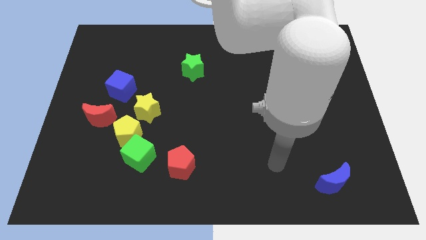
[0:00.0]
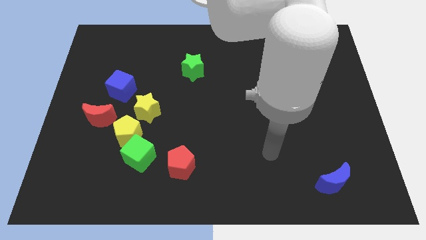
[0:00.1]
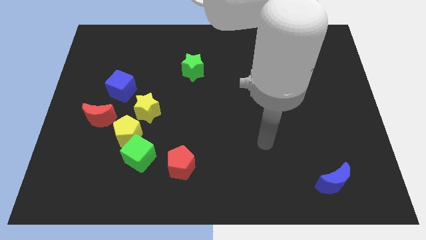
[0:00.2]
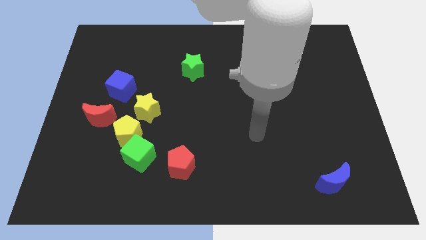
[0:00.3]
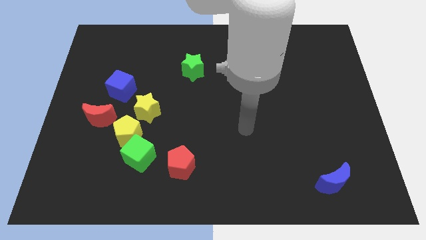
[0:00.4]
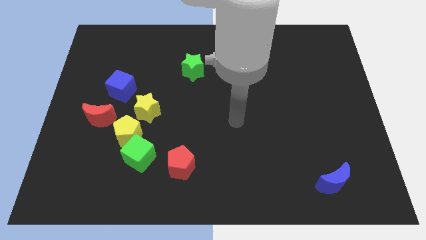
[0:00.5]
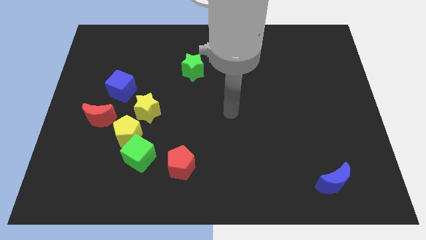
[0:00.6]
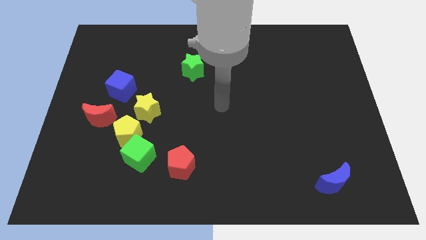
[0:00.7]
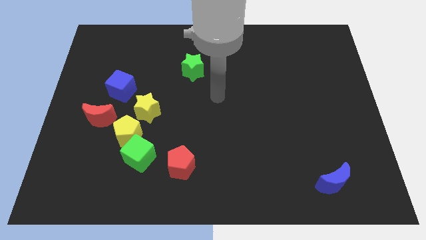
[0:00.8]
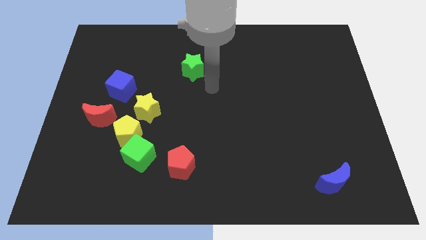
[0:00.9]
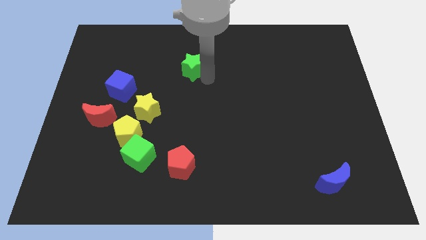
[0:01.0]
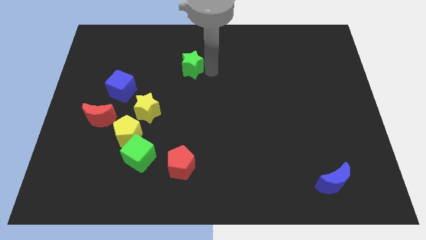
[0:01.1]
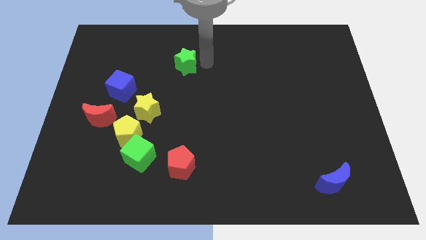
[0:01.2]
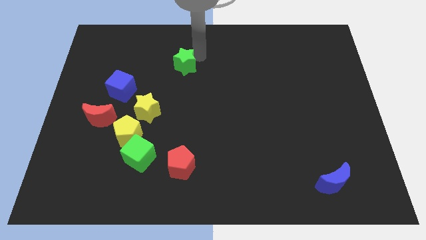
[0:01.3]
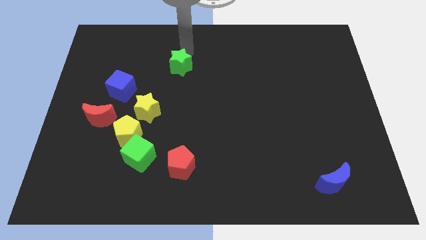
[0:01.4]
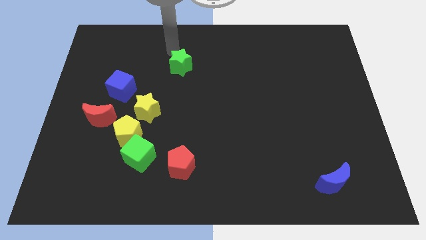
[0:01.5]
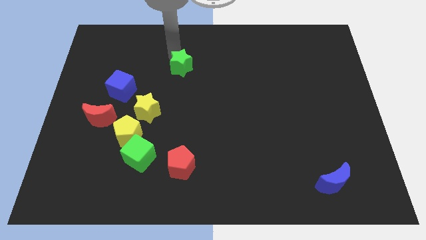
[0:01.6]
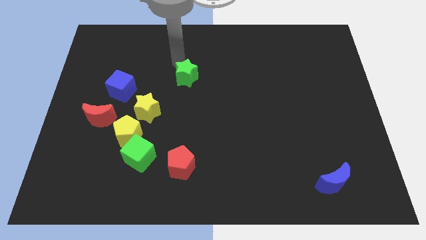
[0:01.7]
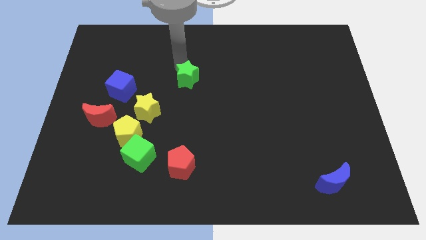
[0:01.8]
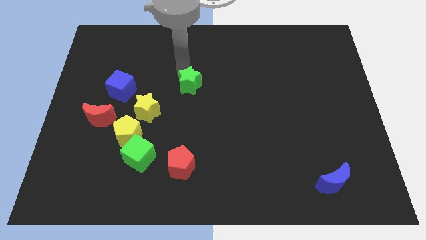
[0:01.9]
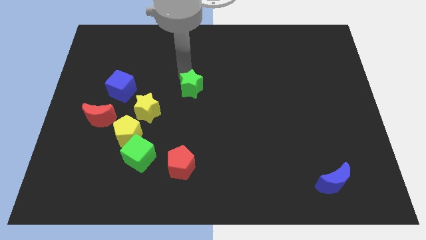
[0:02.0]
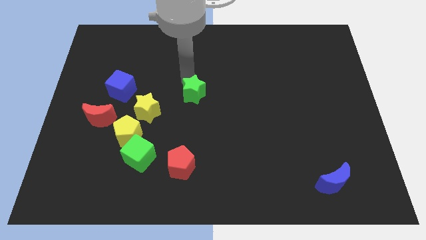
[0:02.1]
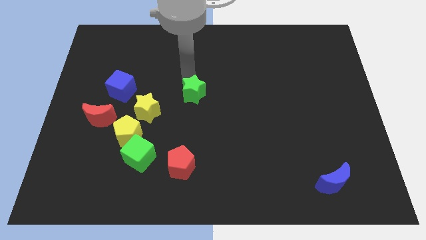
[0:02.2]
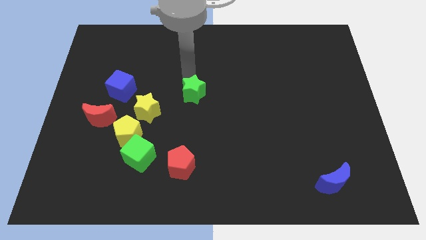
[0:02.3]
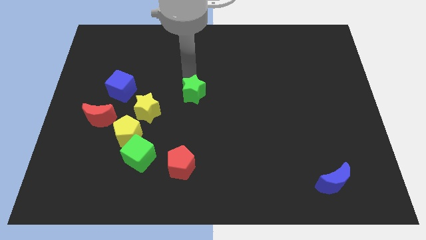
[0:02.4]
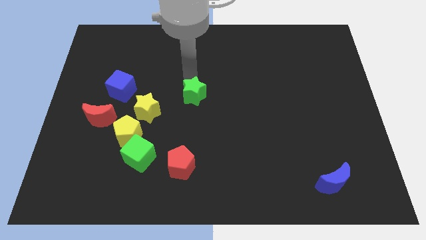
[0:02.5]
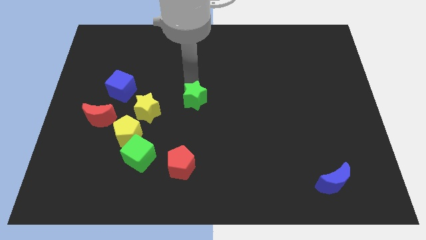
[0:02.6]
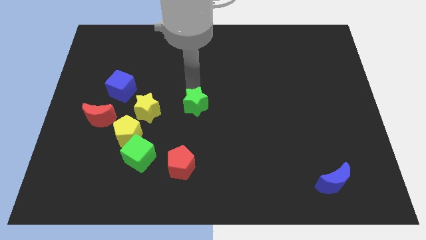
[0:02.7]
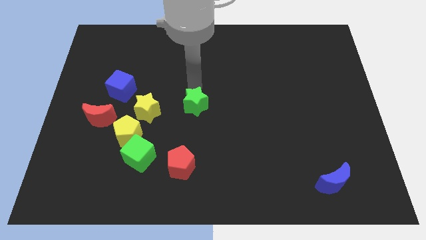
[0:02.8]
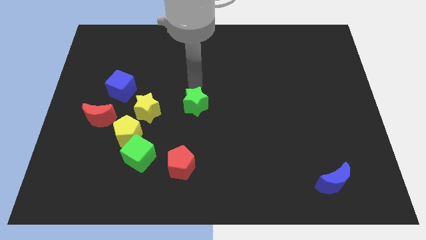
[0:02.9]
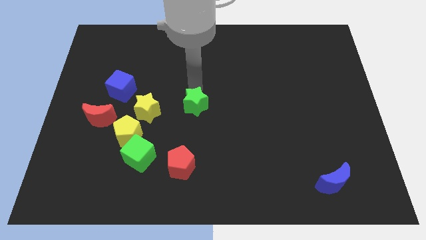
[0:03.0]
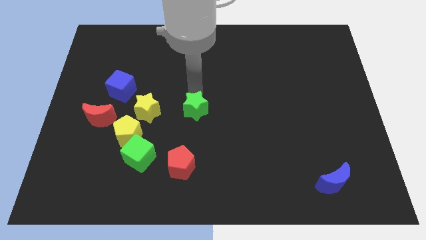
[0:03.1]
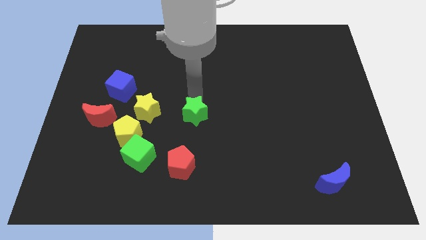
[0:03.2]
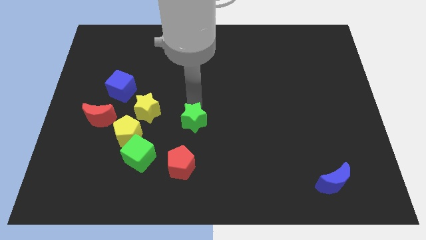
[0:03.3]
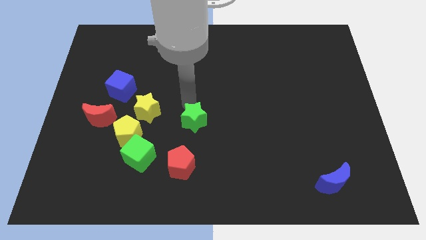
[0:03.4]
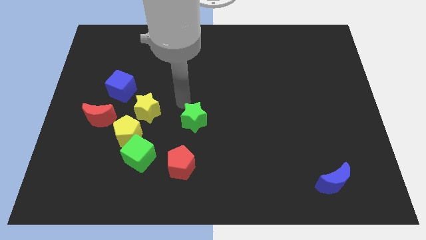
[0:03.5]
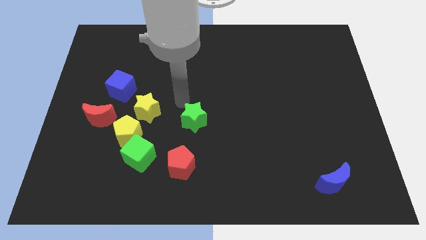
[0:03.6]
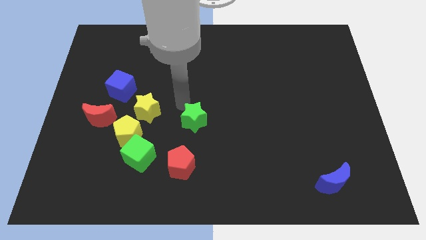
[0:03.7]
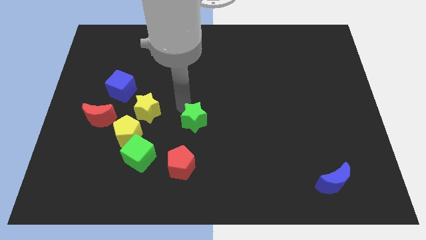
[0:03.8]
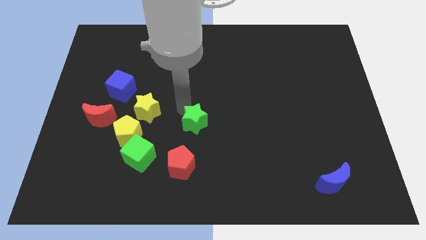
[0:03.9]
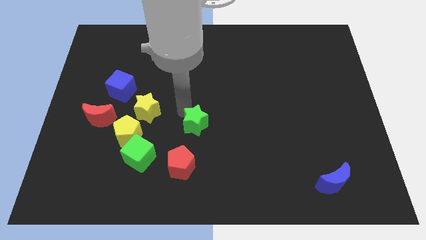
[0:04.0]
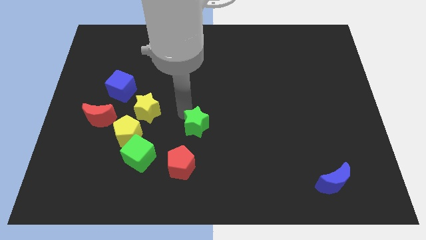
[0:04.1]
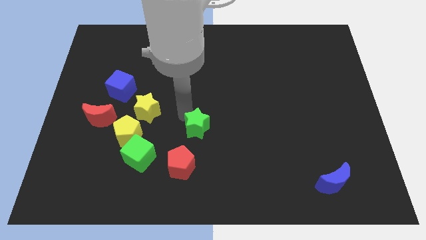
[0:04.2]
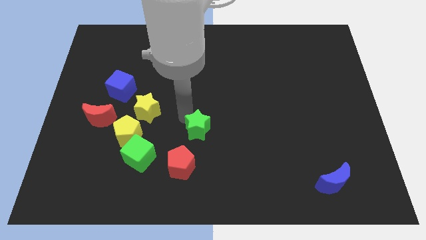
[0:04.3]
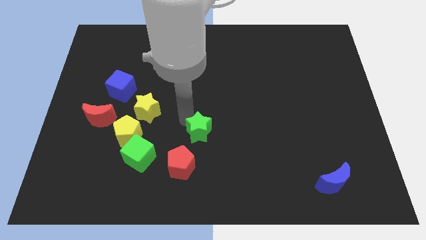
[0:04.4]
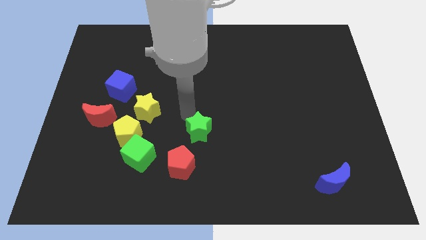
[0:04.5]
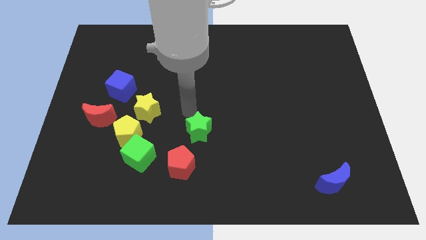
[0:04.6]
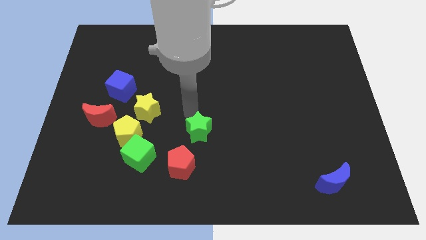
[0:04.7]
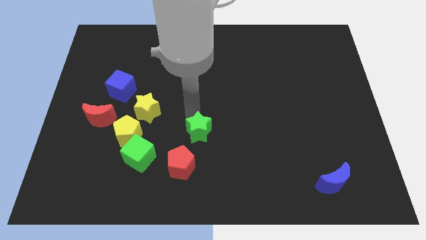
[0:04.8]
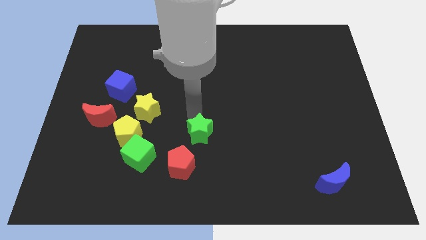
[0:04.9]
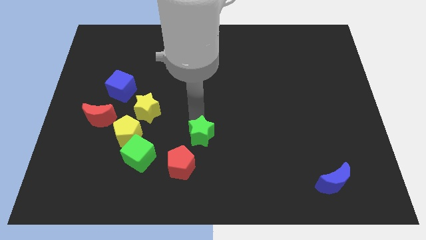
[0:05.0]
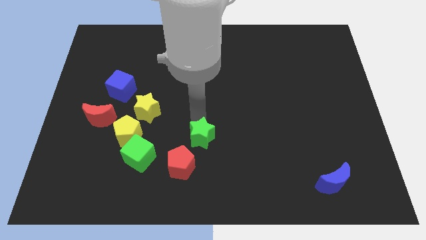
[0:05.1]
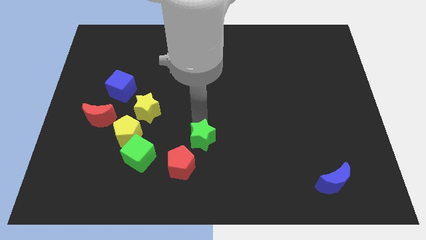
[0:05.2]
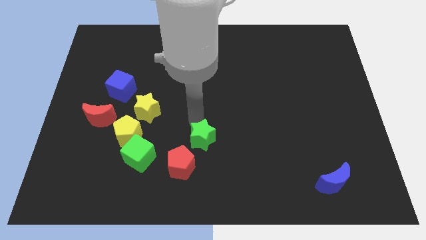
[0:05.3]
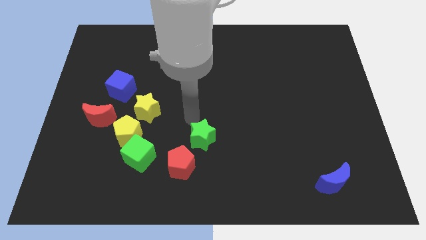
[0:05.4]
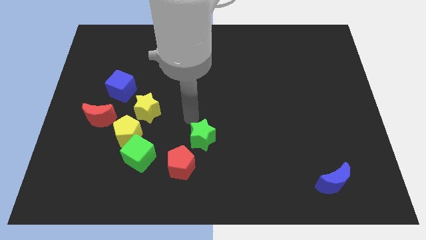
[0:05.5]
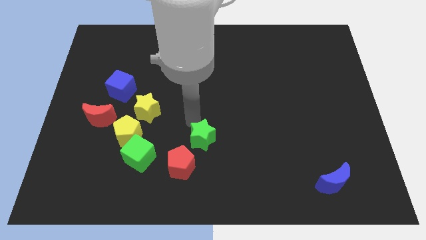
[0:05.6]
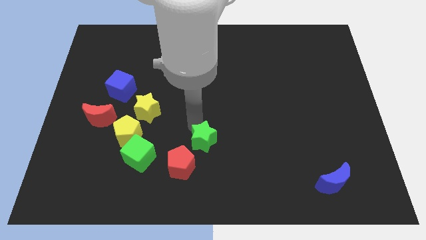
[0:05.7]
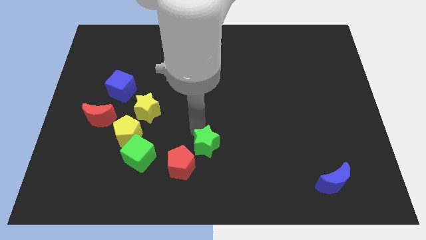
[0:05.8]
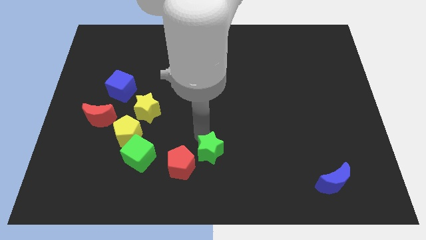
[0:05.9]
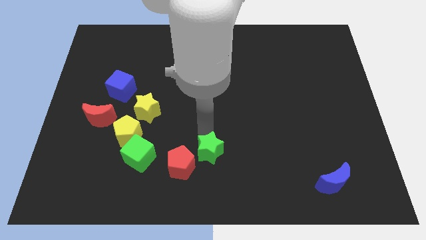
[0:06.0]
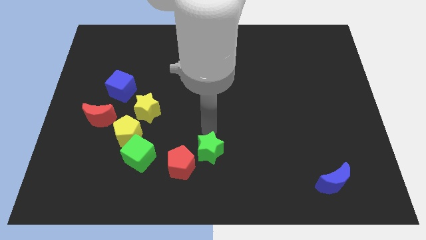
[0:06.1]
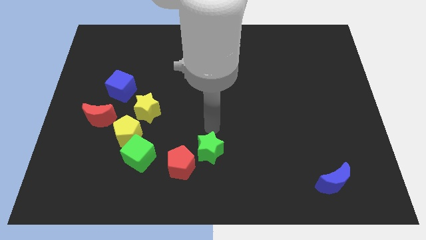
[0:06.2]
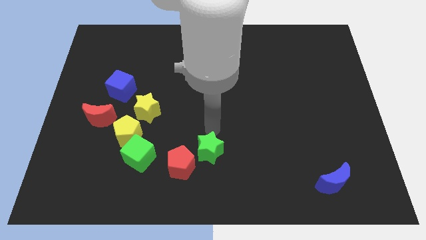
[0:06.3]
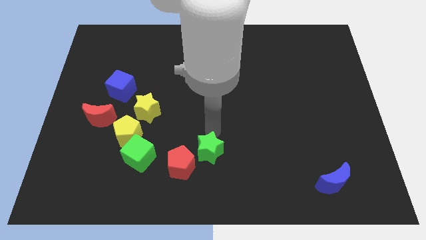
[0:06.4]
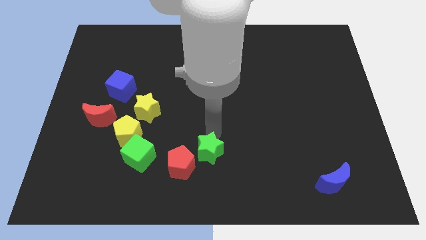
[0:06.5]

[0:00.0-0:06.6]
slide the green star to the bottom
